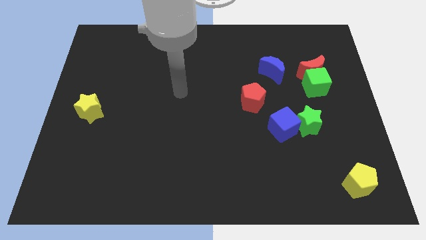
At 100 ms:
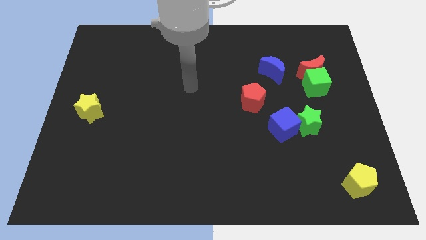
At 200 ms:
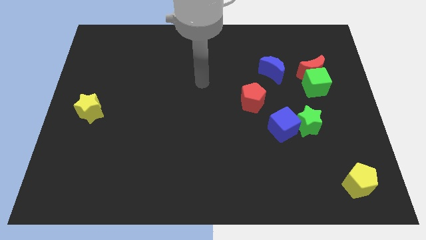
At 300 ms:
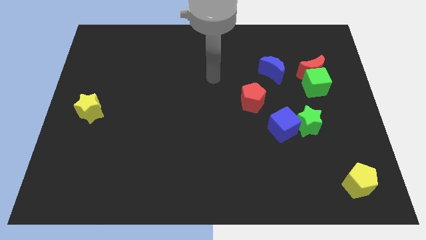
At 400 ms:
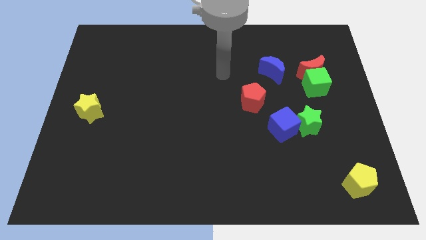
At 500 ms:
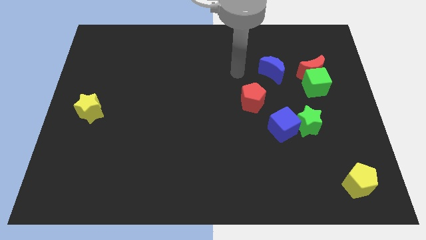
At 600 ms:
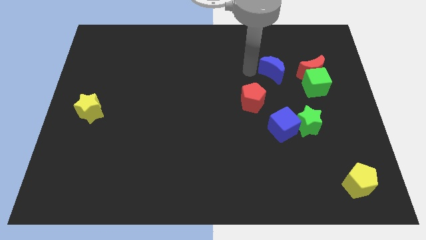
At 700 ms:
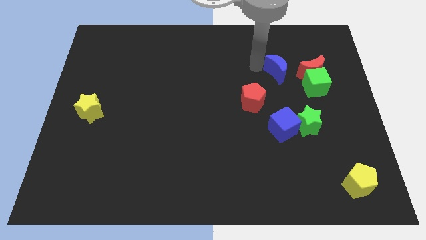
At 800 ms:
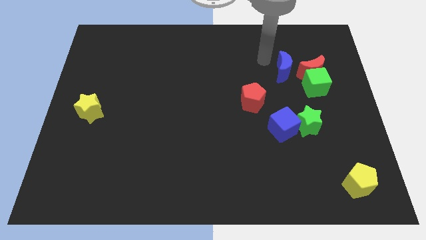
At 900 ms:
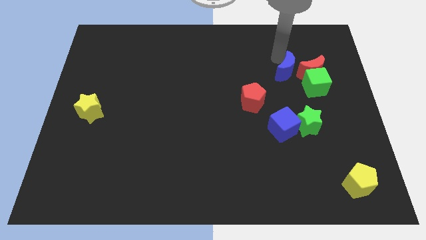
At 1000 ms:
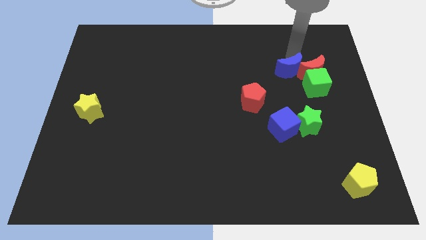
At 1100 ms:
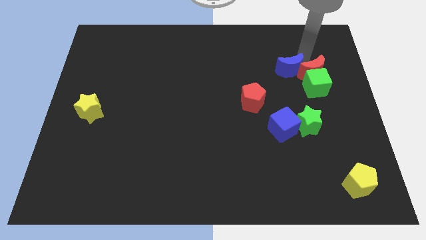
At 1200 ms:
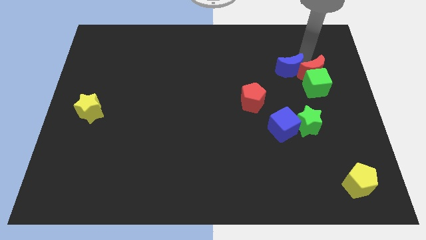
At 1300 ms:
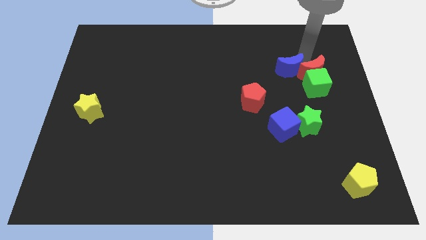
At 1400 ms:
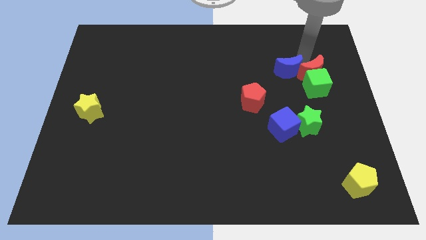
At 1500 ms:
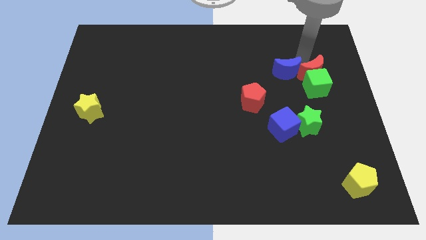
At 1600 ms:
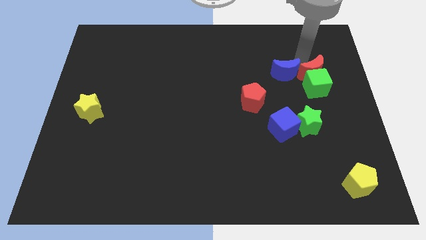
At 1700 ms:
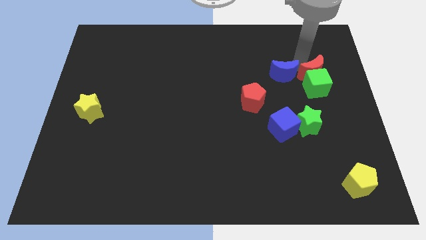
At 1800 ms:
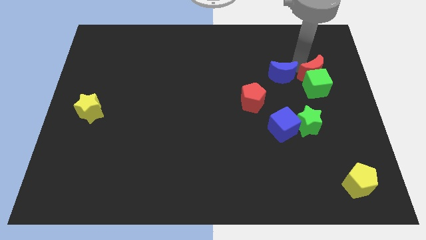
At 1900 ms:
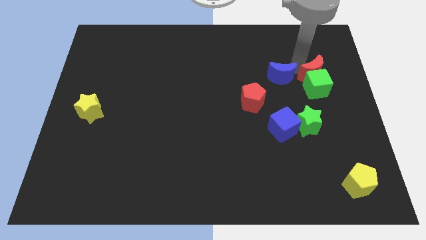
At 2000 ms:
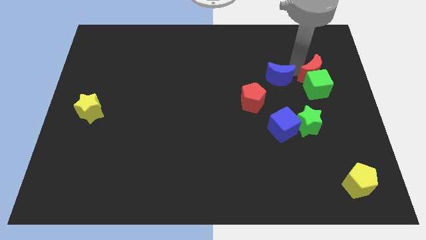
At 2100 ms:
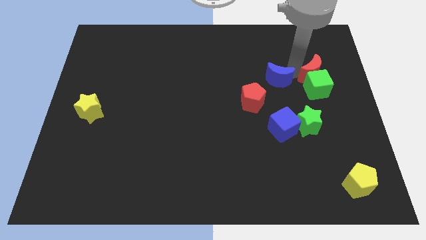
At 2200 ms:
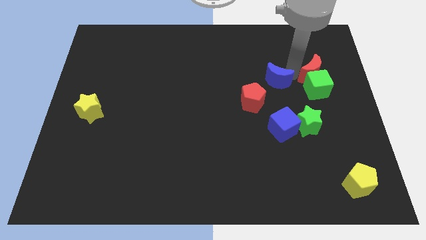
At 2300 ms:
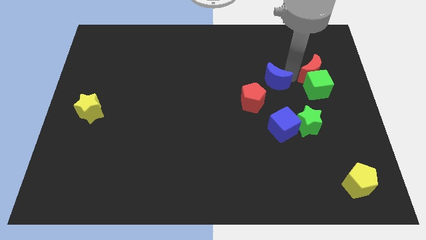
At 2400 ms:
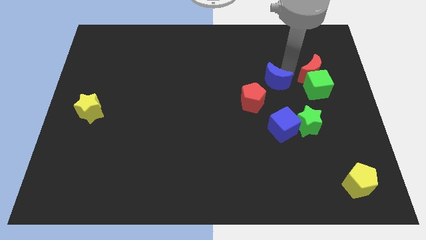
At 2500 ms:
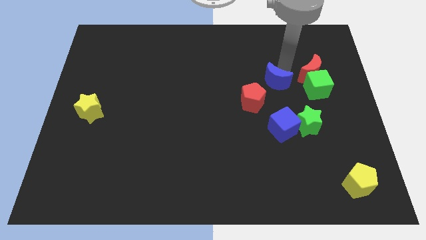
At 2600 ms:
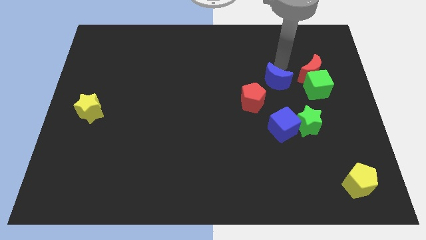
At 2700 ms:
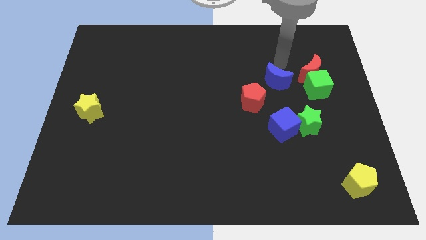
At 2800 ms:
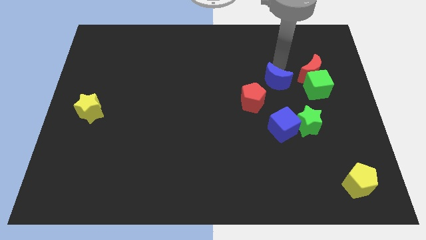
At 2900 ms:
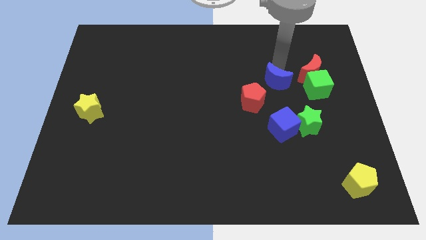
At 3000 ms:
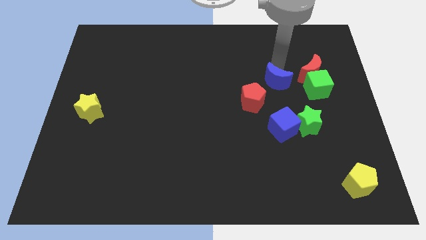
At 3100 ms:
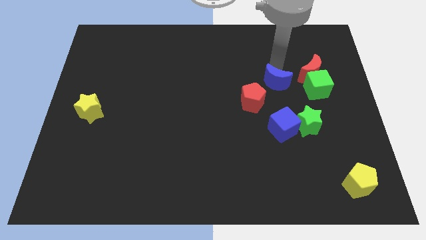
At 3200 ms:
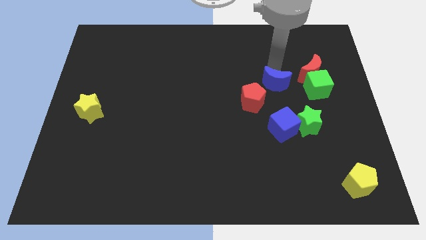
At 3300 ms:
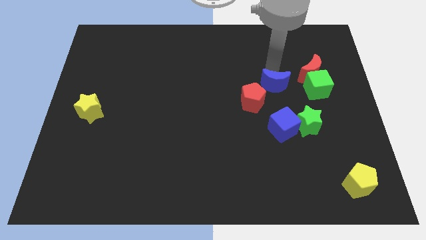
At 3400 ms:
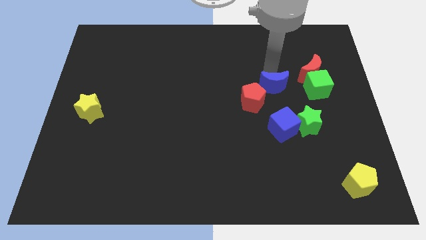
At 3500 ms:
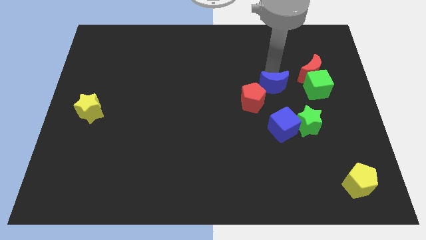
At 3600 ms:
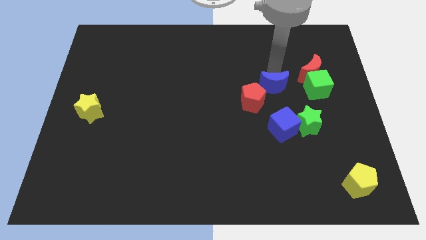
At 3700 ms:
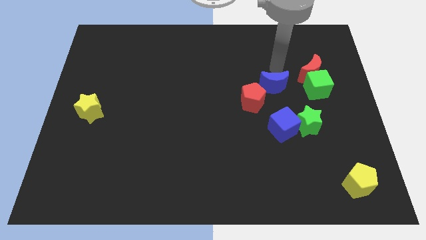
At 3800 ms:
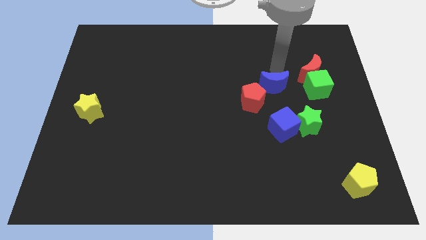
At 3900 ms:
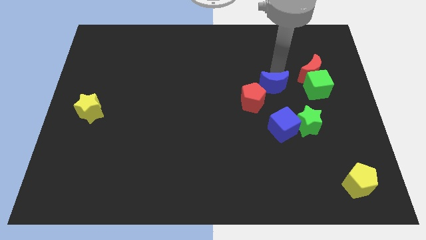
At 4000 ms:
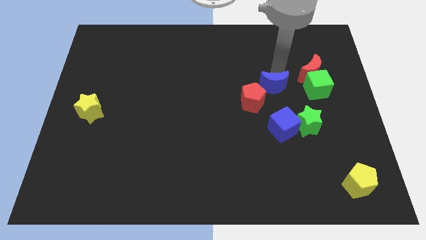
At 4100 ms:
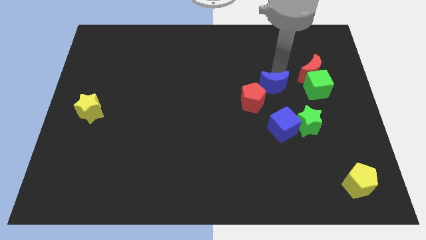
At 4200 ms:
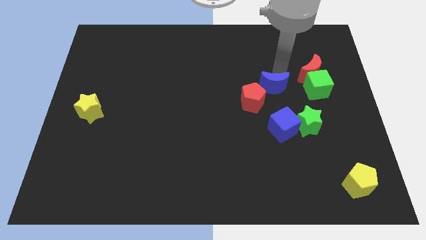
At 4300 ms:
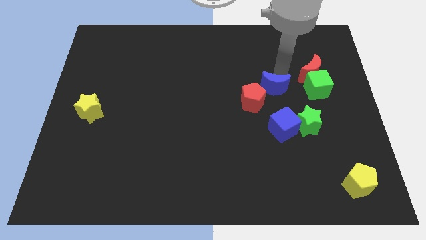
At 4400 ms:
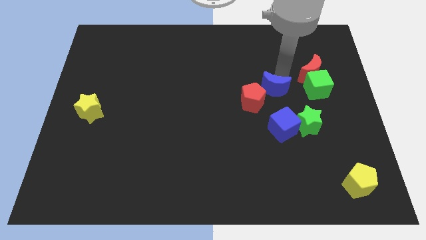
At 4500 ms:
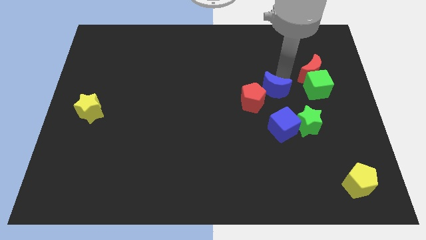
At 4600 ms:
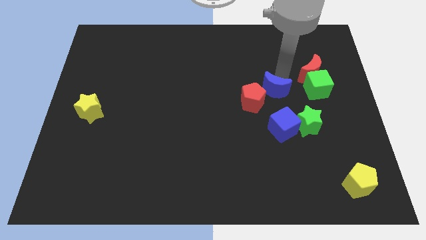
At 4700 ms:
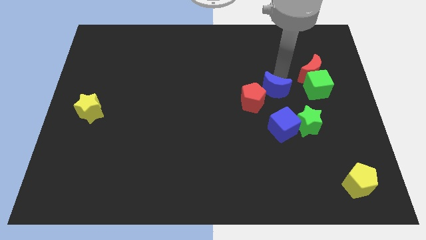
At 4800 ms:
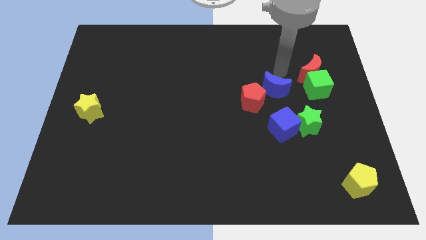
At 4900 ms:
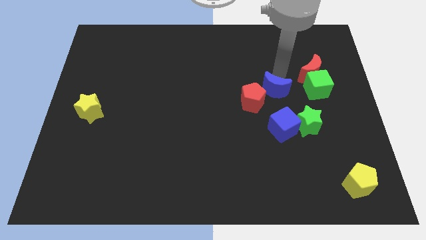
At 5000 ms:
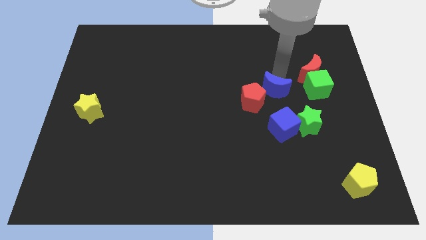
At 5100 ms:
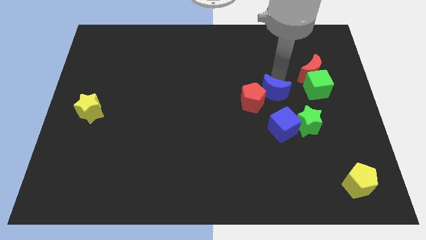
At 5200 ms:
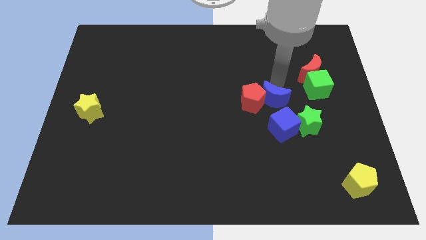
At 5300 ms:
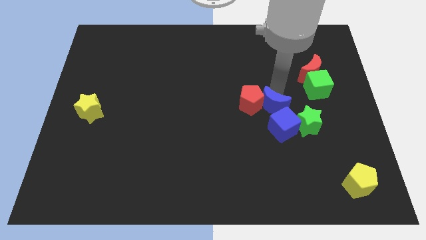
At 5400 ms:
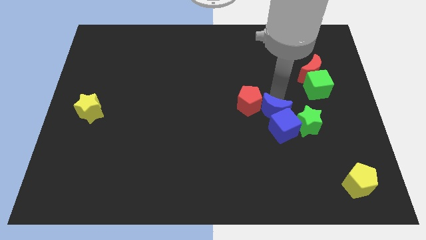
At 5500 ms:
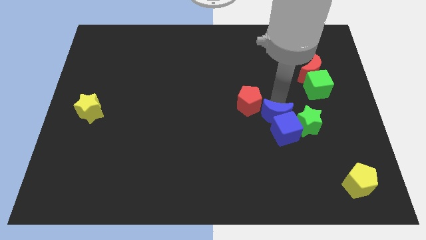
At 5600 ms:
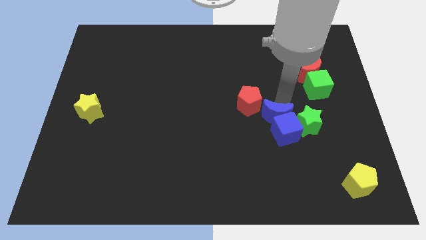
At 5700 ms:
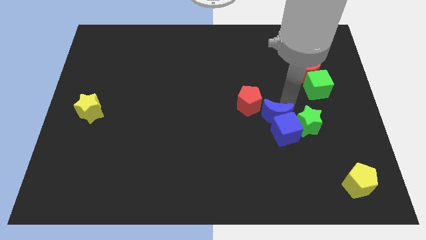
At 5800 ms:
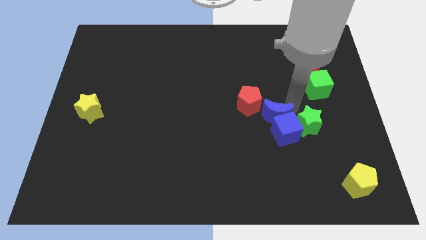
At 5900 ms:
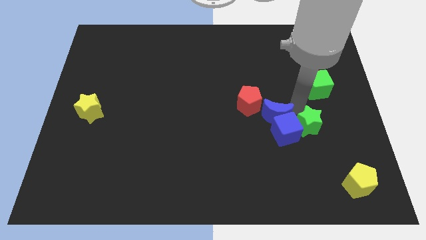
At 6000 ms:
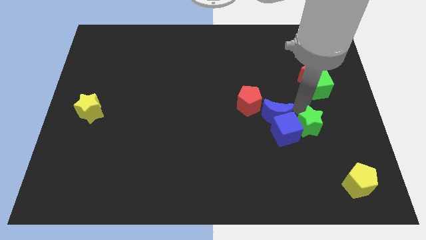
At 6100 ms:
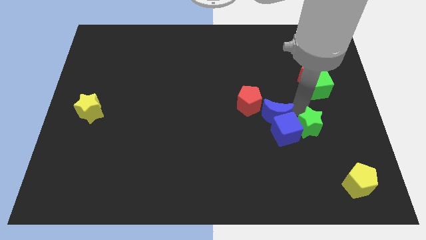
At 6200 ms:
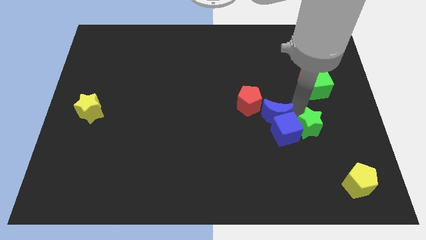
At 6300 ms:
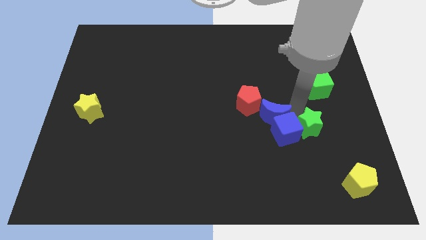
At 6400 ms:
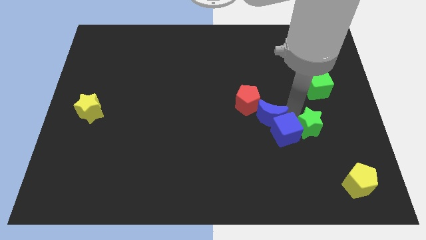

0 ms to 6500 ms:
slide the blue moon just left of the blue cube
